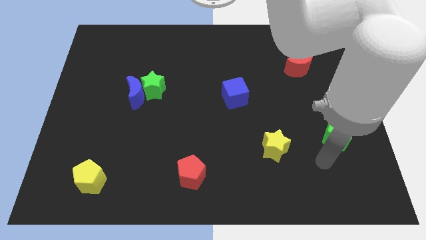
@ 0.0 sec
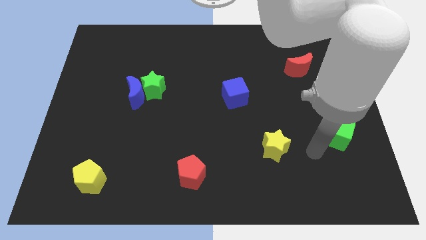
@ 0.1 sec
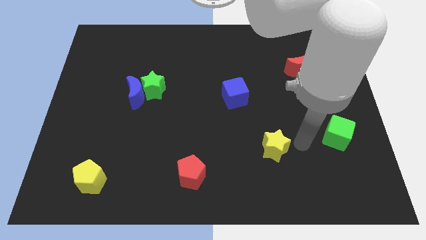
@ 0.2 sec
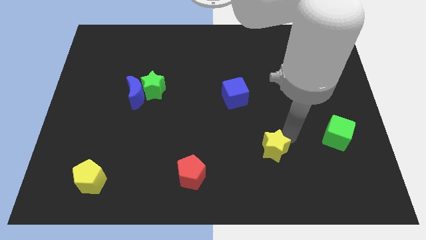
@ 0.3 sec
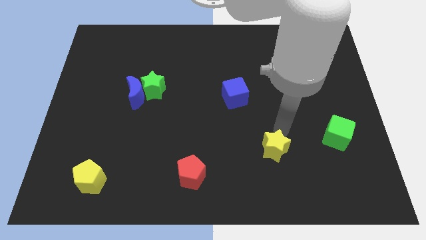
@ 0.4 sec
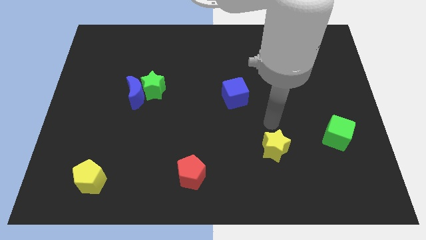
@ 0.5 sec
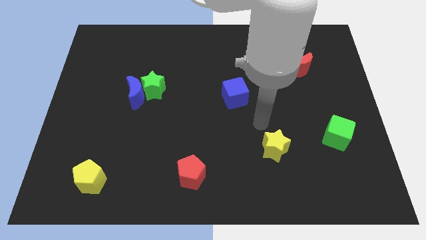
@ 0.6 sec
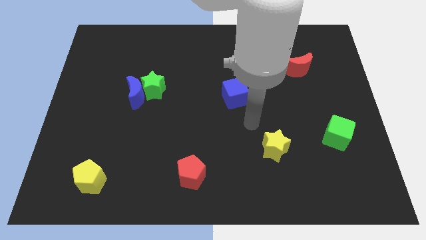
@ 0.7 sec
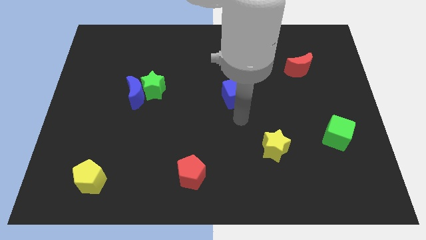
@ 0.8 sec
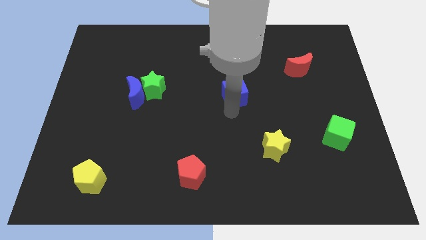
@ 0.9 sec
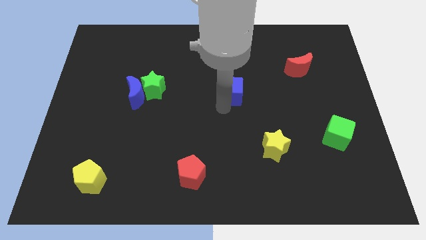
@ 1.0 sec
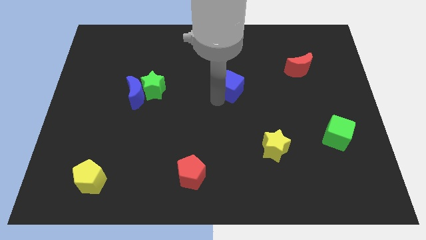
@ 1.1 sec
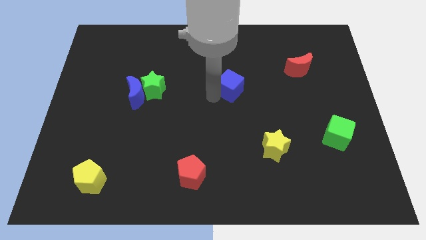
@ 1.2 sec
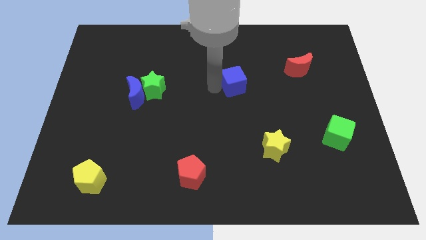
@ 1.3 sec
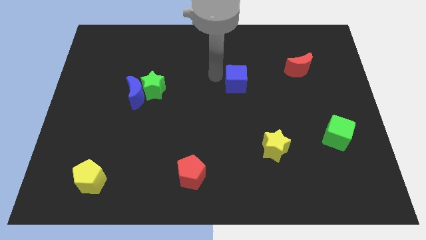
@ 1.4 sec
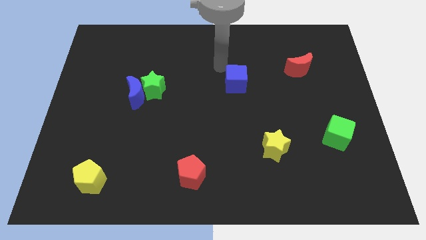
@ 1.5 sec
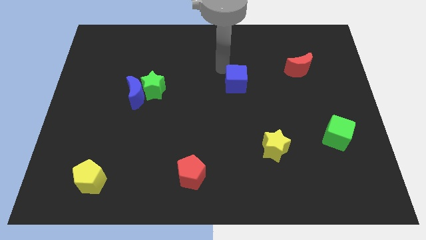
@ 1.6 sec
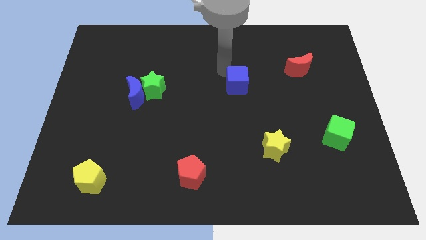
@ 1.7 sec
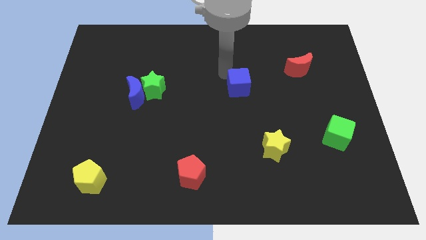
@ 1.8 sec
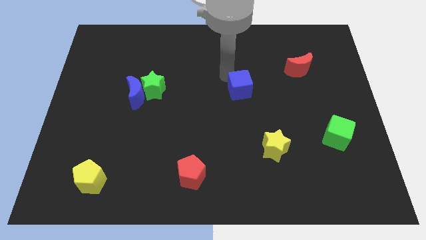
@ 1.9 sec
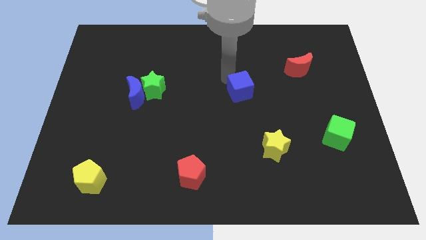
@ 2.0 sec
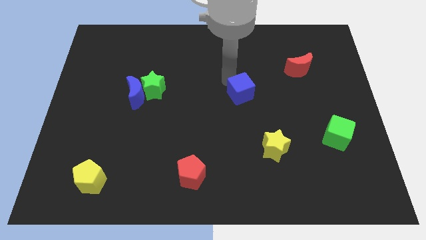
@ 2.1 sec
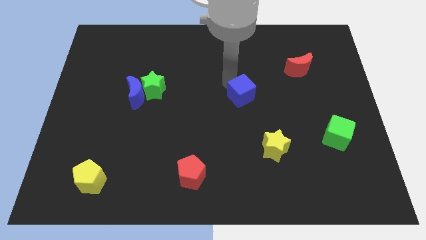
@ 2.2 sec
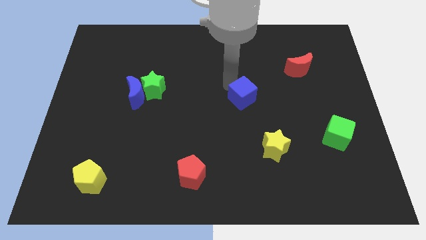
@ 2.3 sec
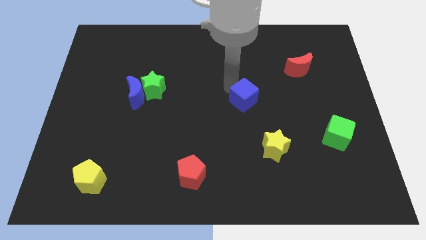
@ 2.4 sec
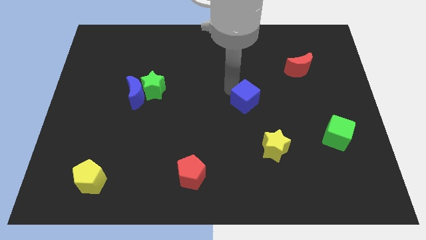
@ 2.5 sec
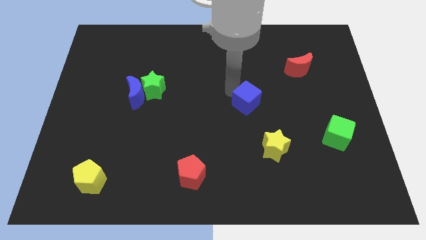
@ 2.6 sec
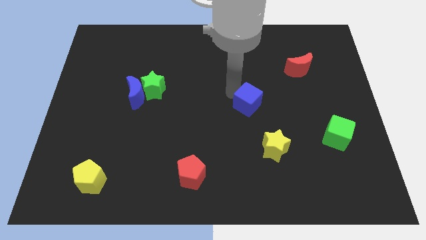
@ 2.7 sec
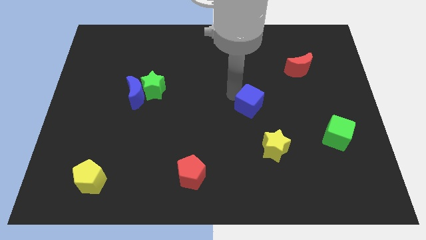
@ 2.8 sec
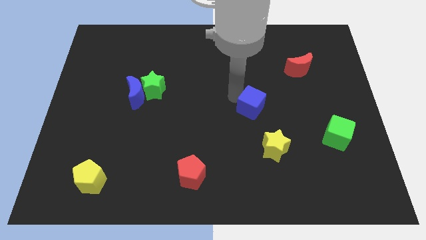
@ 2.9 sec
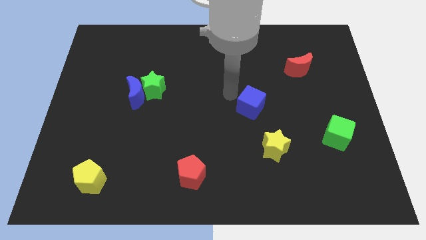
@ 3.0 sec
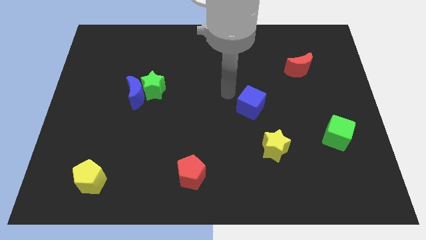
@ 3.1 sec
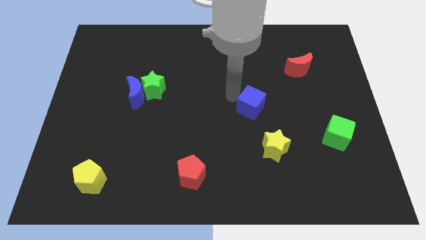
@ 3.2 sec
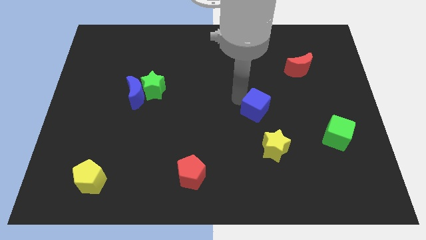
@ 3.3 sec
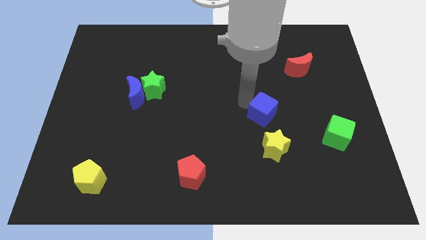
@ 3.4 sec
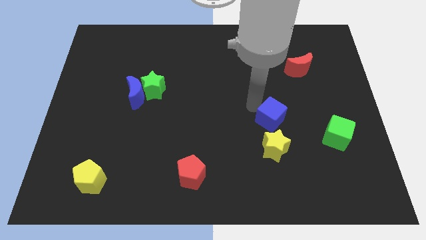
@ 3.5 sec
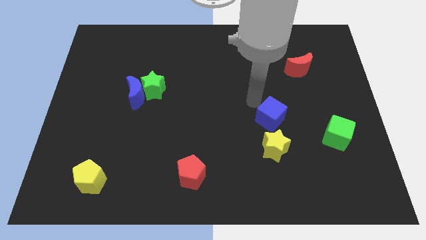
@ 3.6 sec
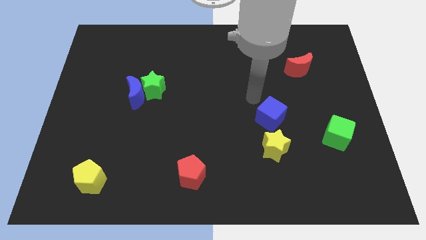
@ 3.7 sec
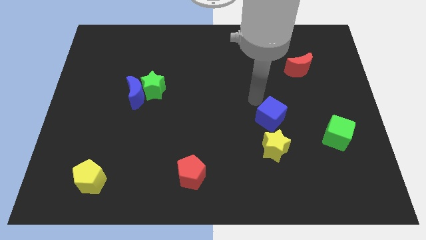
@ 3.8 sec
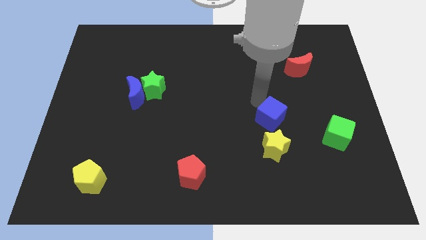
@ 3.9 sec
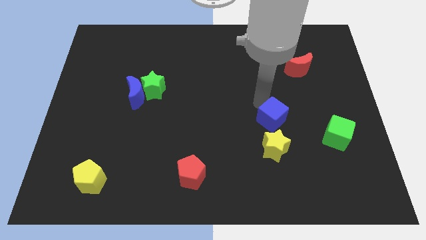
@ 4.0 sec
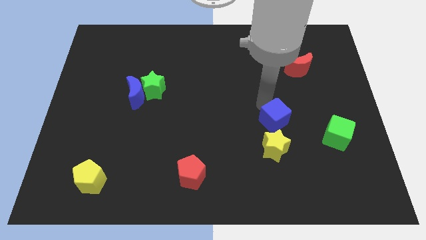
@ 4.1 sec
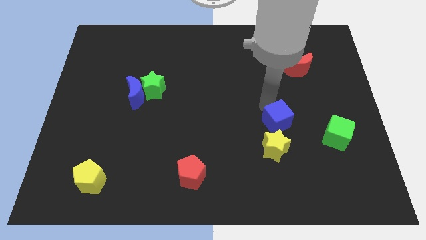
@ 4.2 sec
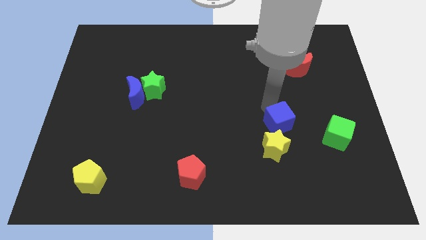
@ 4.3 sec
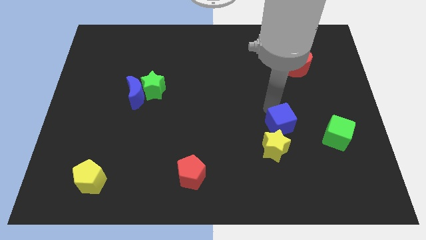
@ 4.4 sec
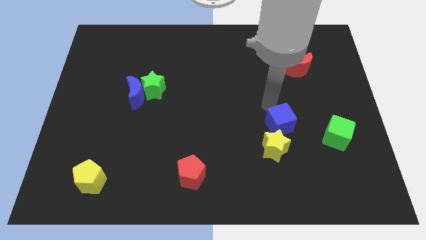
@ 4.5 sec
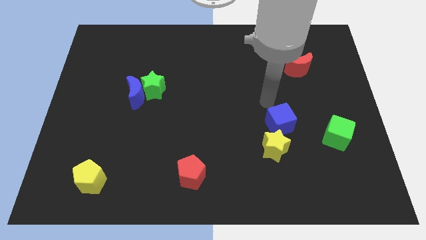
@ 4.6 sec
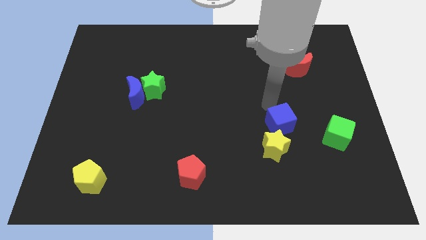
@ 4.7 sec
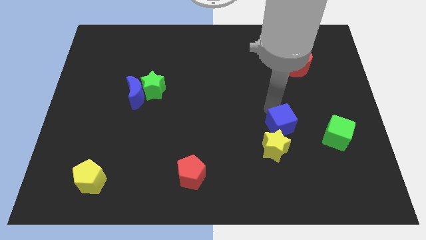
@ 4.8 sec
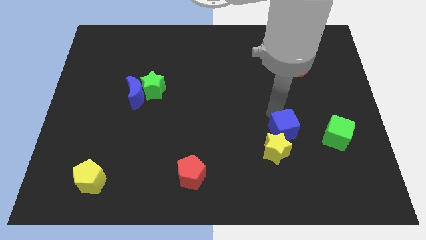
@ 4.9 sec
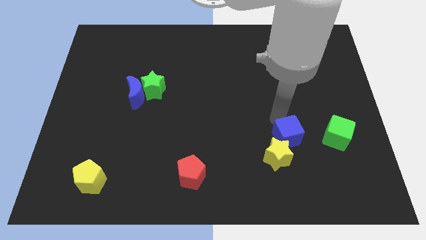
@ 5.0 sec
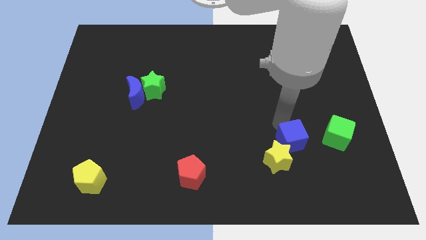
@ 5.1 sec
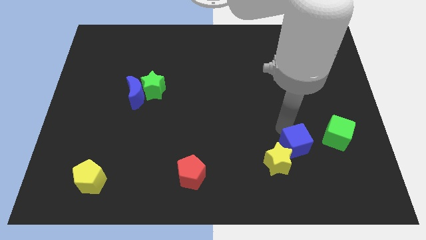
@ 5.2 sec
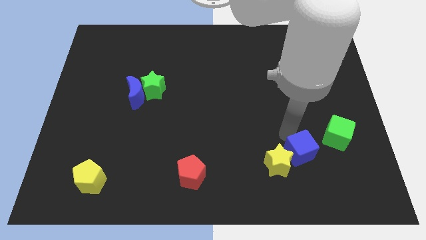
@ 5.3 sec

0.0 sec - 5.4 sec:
push the blue cube downwards and to the right

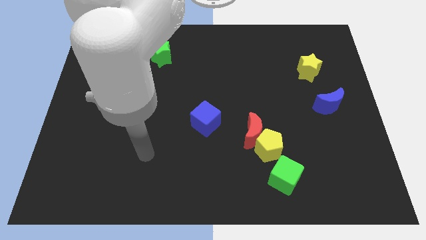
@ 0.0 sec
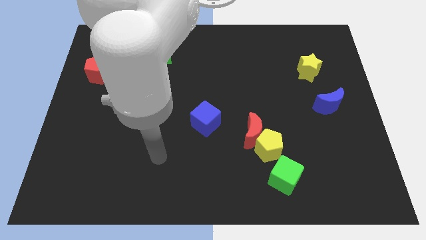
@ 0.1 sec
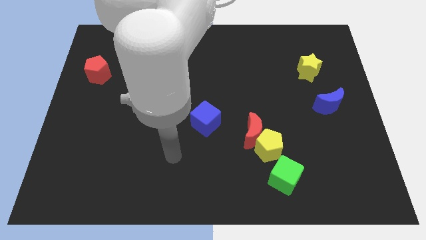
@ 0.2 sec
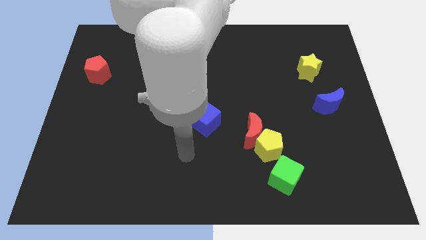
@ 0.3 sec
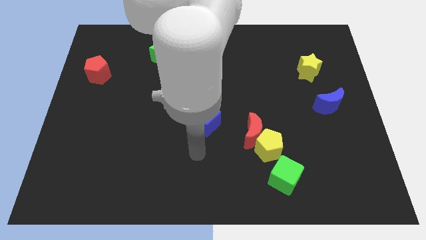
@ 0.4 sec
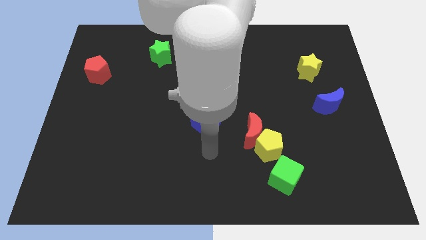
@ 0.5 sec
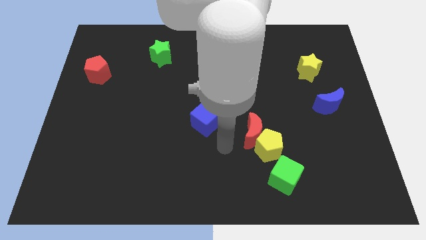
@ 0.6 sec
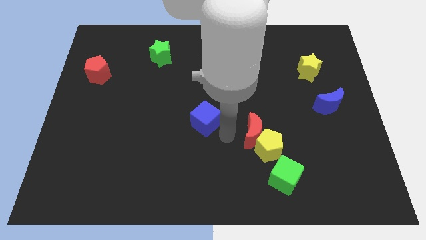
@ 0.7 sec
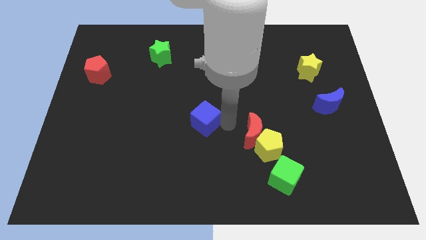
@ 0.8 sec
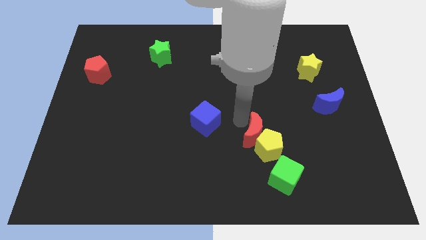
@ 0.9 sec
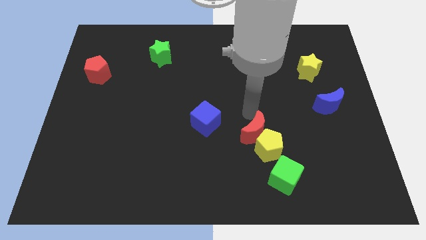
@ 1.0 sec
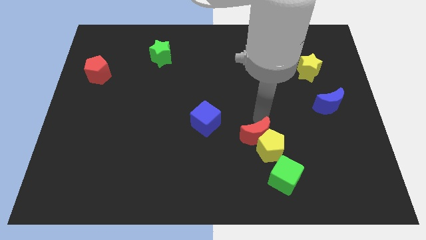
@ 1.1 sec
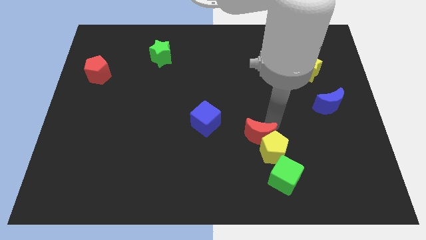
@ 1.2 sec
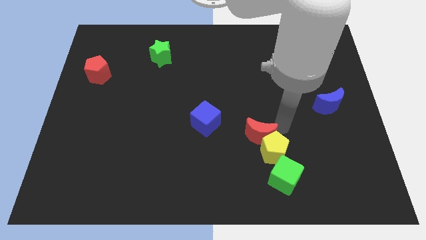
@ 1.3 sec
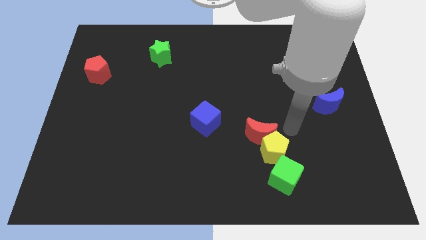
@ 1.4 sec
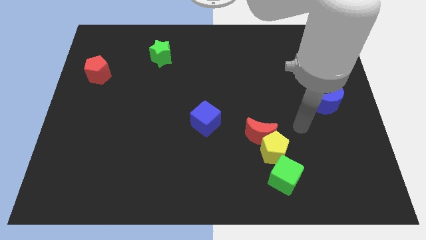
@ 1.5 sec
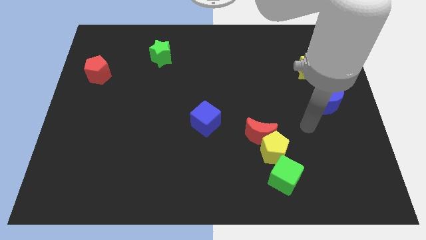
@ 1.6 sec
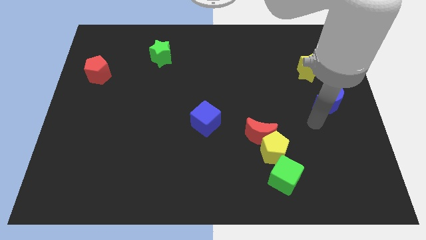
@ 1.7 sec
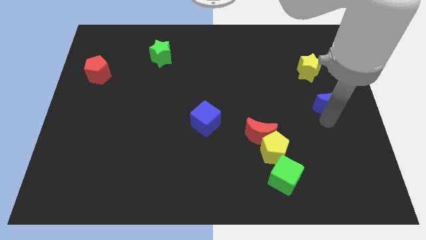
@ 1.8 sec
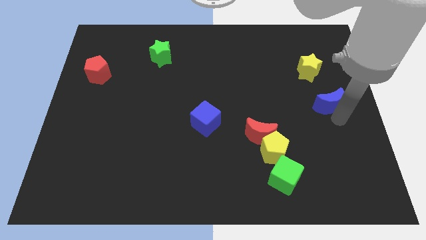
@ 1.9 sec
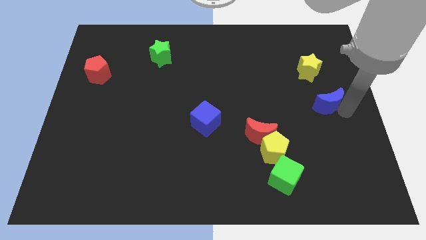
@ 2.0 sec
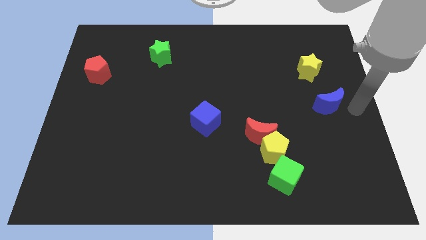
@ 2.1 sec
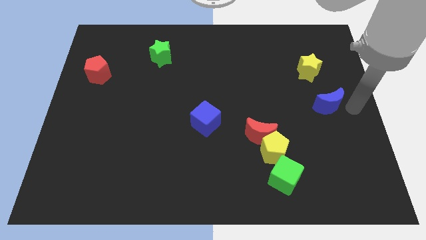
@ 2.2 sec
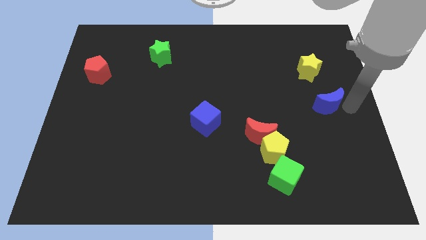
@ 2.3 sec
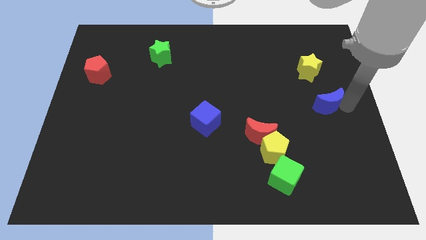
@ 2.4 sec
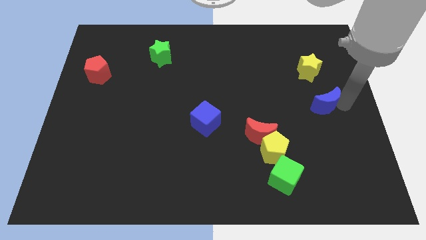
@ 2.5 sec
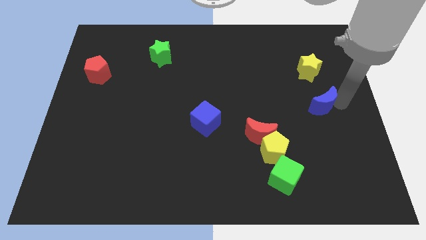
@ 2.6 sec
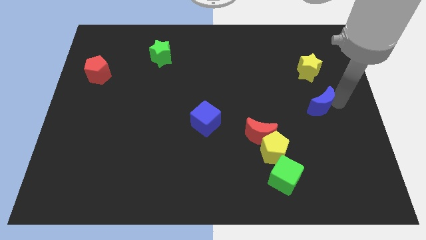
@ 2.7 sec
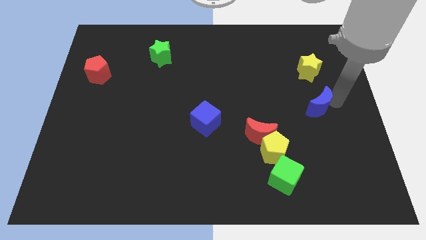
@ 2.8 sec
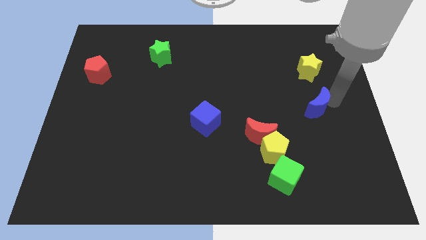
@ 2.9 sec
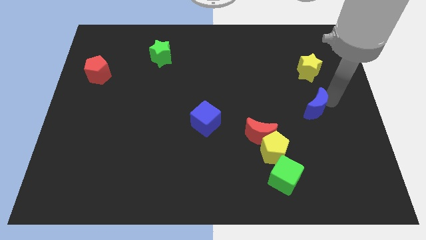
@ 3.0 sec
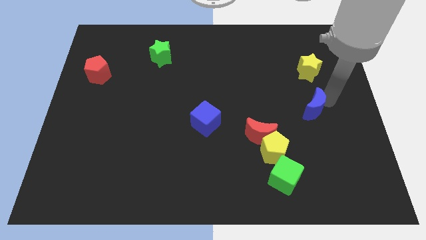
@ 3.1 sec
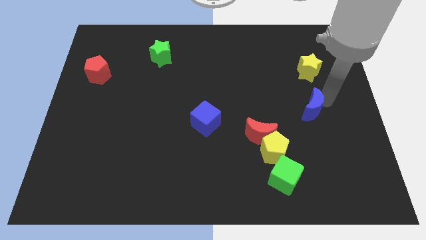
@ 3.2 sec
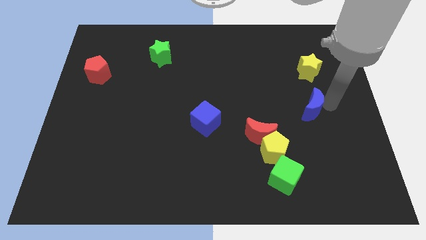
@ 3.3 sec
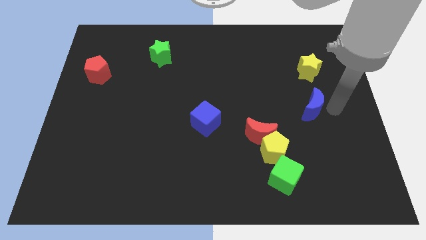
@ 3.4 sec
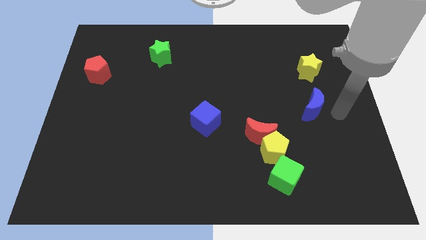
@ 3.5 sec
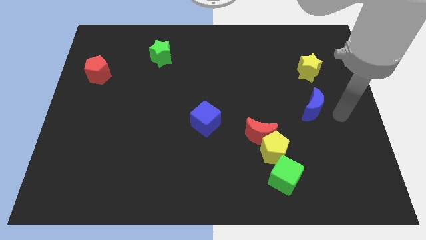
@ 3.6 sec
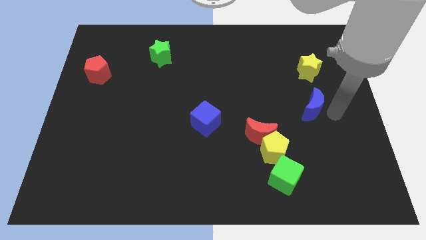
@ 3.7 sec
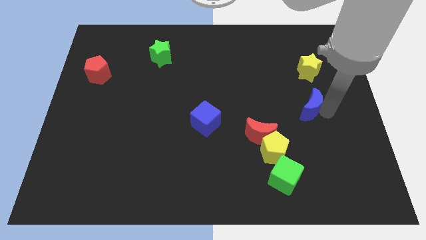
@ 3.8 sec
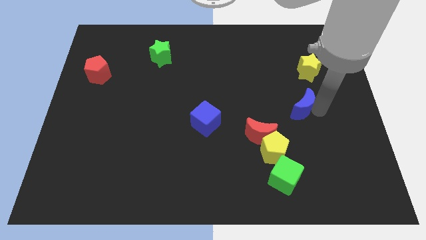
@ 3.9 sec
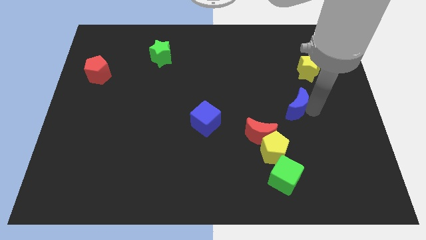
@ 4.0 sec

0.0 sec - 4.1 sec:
slightly slide the blue moon left
